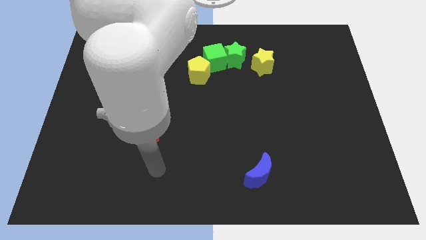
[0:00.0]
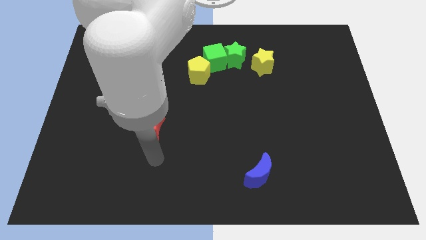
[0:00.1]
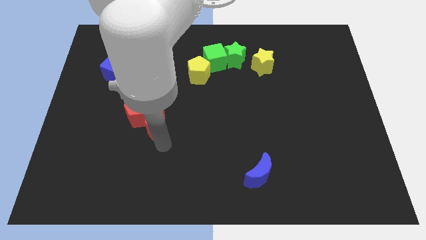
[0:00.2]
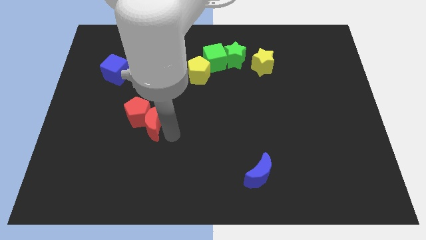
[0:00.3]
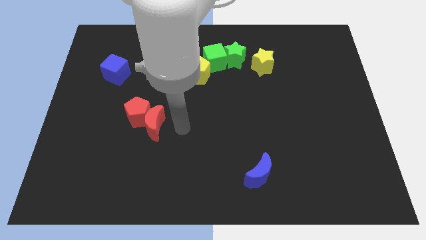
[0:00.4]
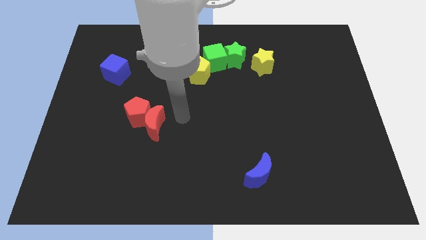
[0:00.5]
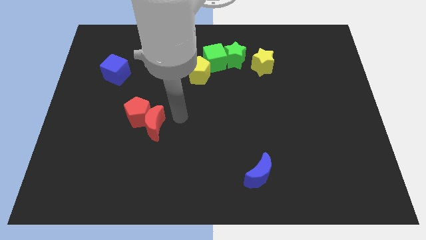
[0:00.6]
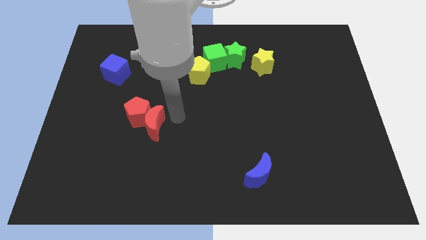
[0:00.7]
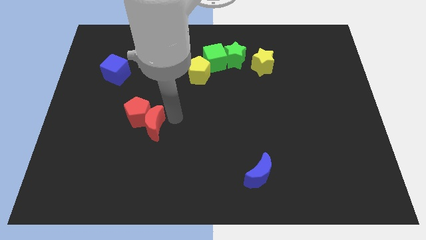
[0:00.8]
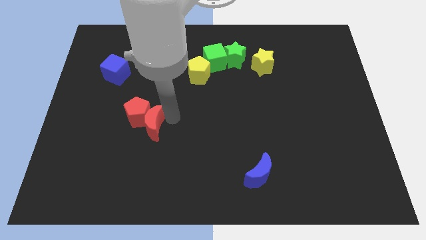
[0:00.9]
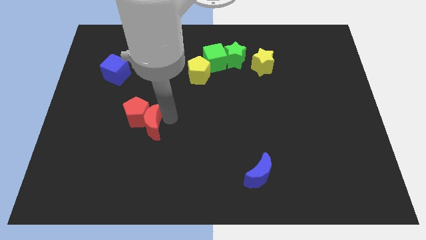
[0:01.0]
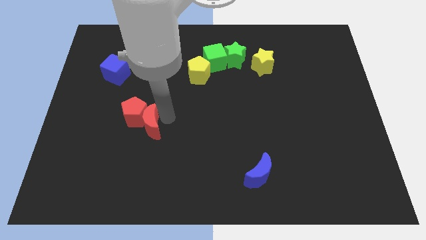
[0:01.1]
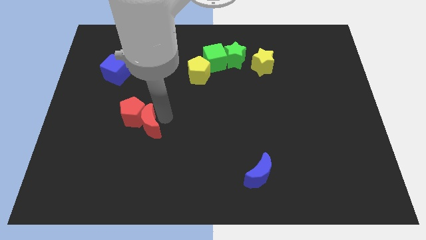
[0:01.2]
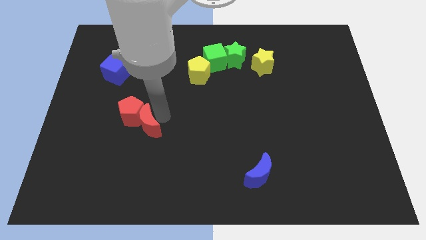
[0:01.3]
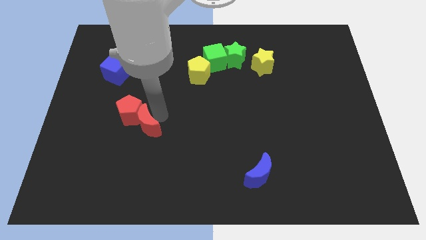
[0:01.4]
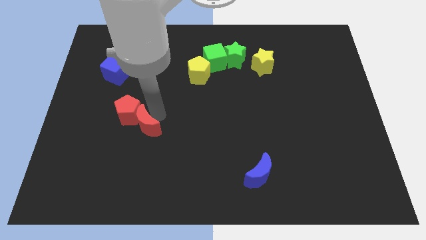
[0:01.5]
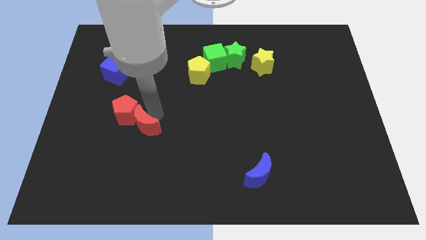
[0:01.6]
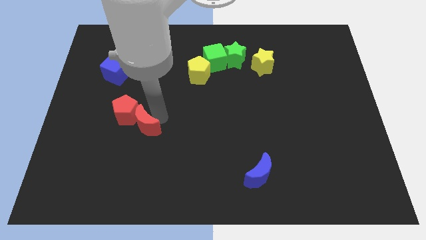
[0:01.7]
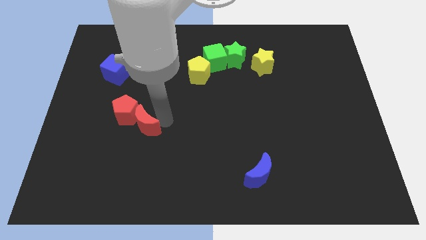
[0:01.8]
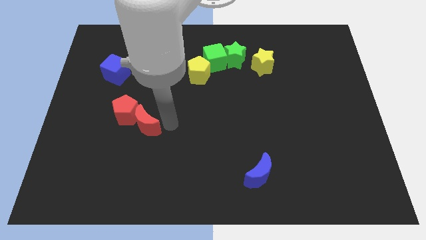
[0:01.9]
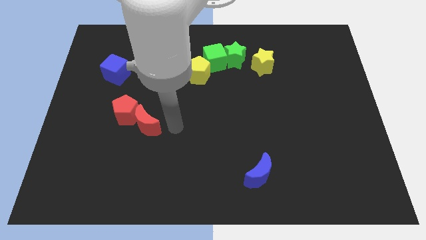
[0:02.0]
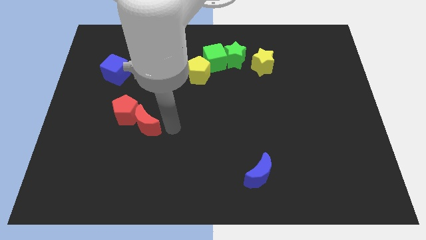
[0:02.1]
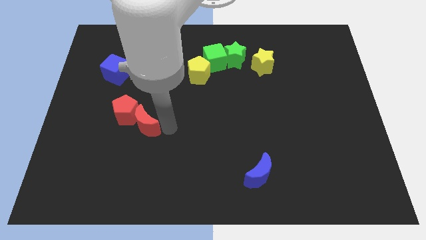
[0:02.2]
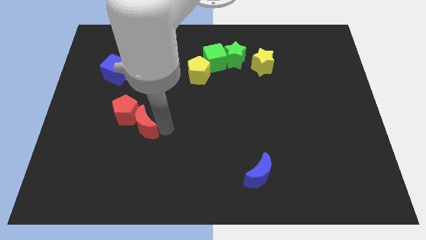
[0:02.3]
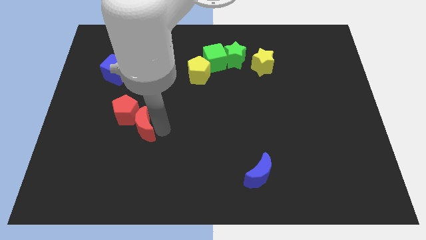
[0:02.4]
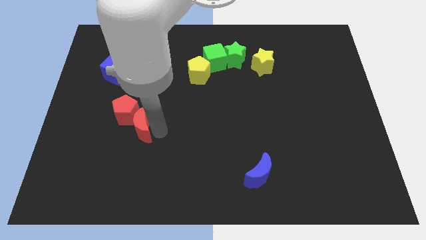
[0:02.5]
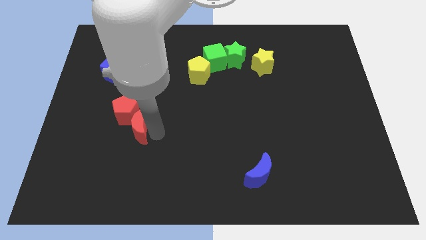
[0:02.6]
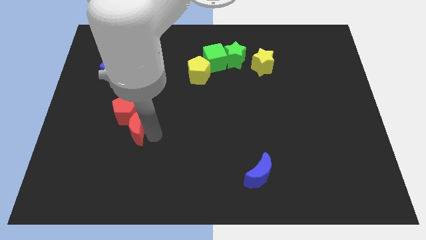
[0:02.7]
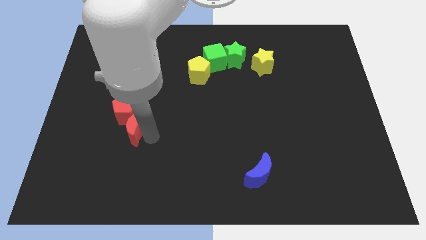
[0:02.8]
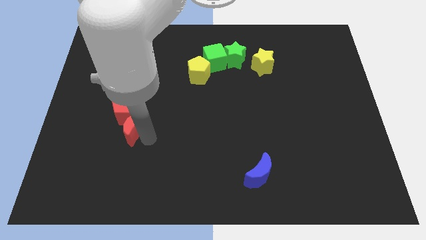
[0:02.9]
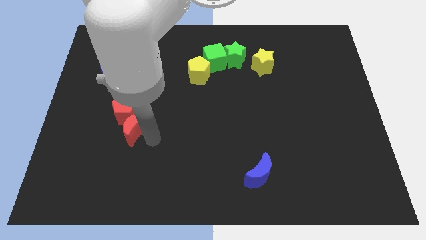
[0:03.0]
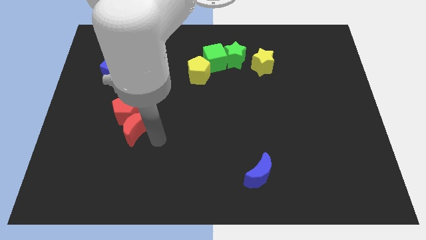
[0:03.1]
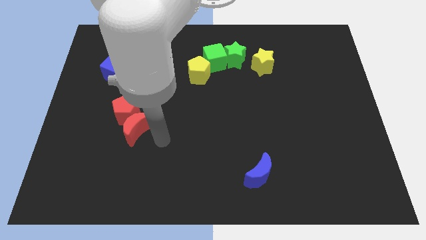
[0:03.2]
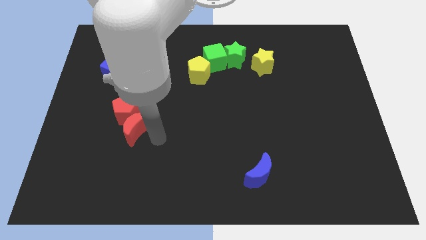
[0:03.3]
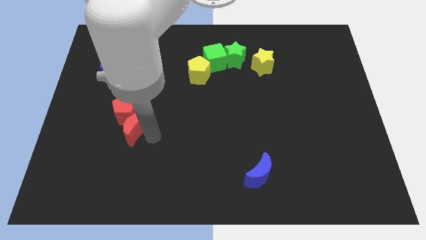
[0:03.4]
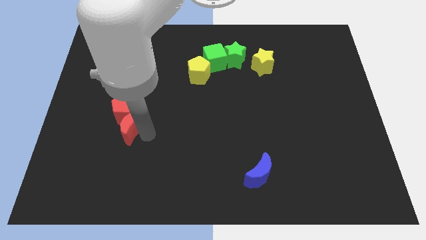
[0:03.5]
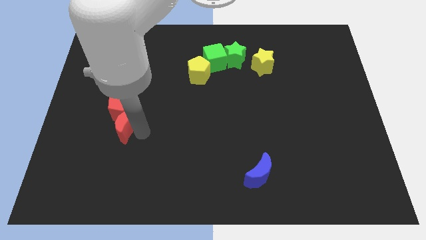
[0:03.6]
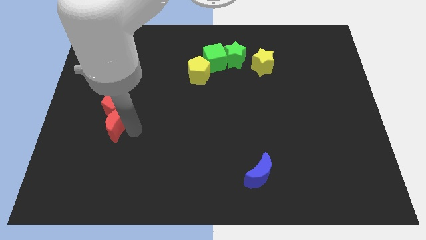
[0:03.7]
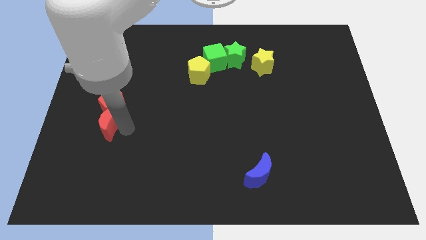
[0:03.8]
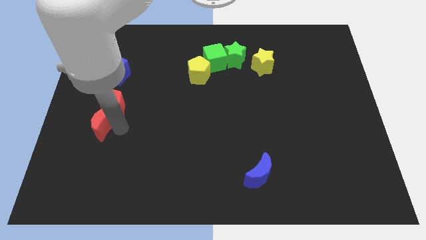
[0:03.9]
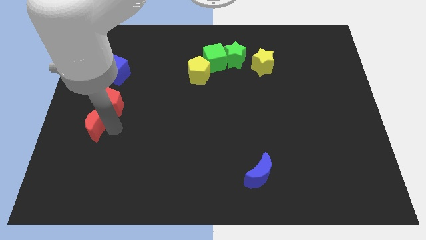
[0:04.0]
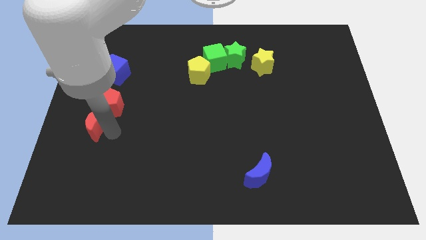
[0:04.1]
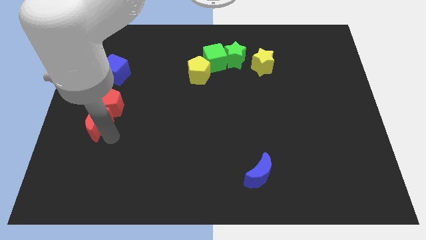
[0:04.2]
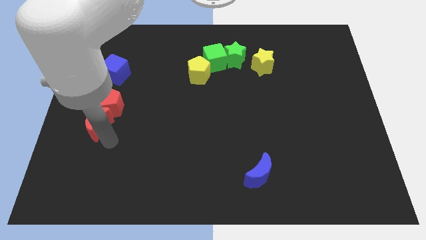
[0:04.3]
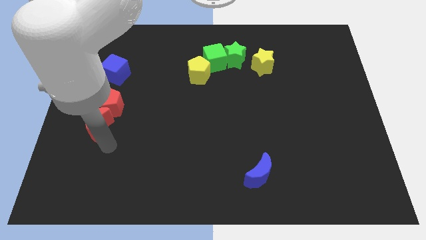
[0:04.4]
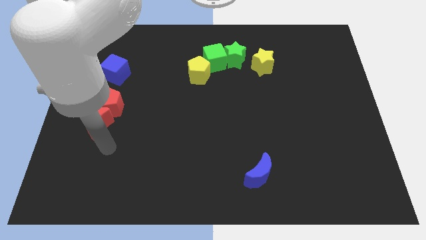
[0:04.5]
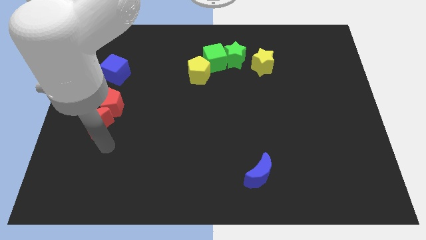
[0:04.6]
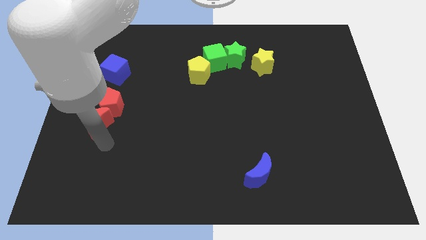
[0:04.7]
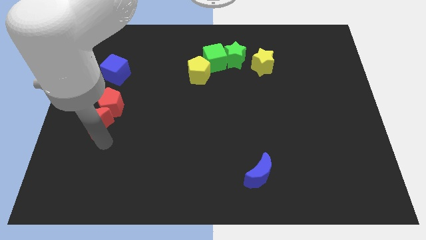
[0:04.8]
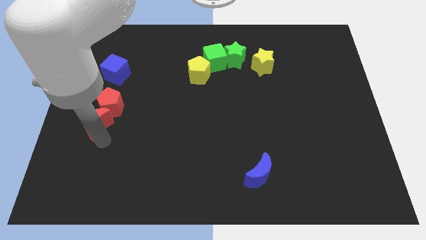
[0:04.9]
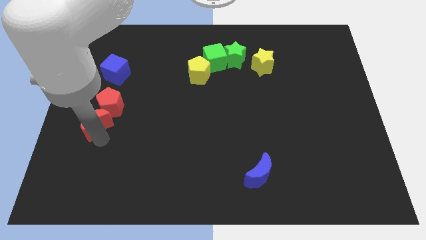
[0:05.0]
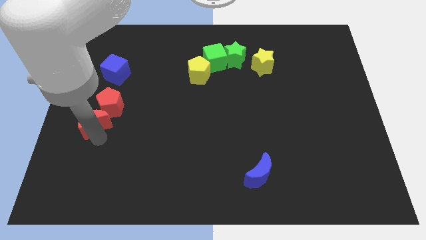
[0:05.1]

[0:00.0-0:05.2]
put the red moon to the center left

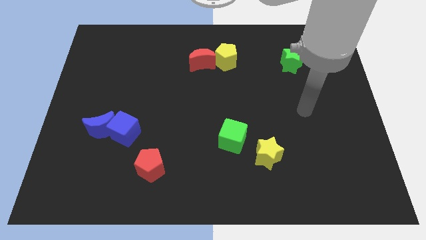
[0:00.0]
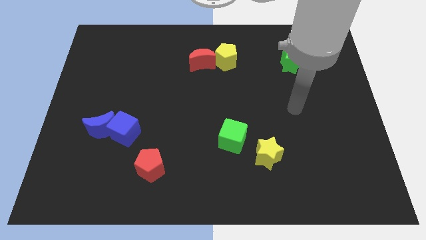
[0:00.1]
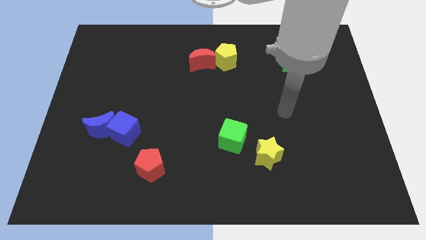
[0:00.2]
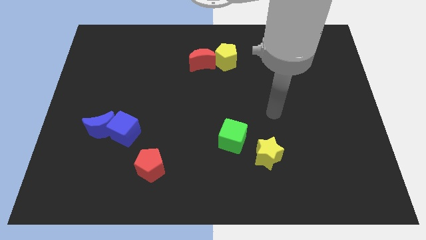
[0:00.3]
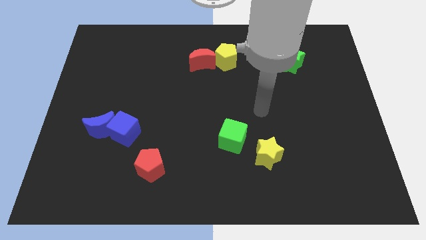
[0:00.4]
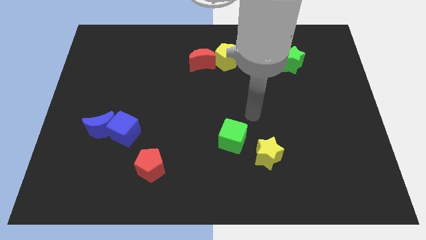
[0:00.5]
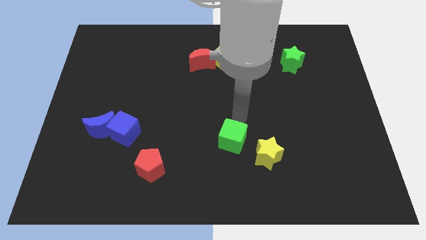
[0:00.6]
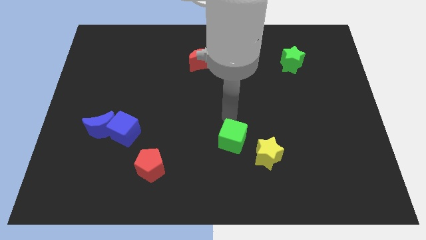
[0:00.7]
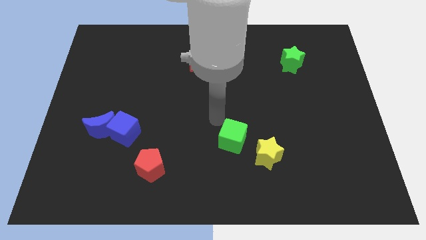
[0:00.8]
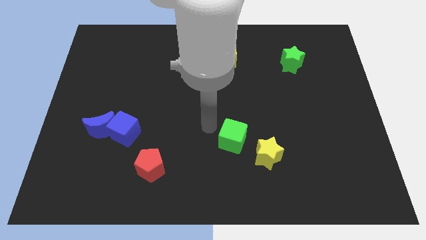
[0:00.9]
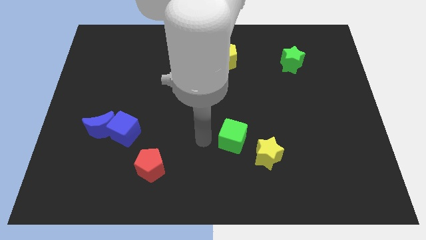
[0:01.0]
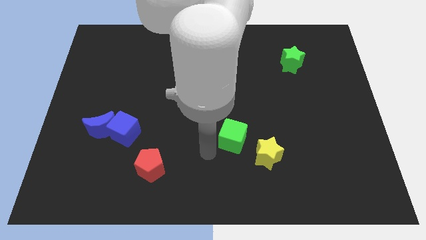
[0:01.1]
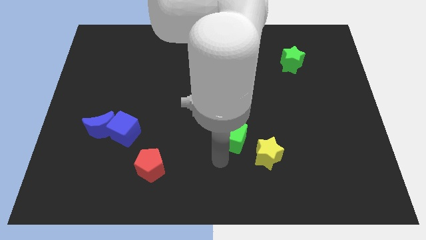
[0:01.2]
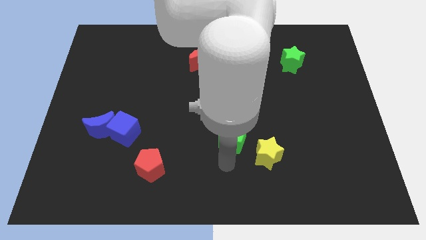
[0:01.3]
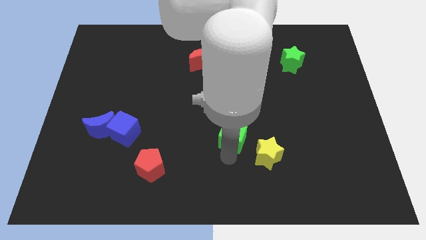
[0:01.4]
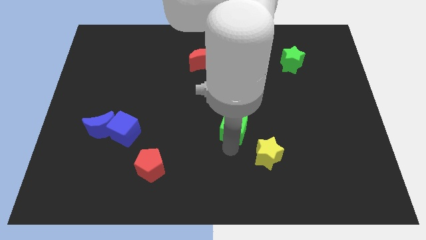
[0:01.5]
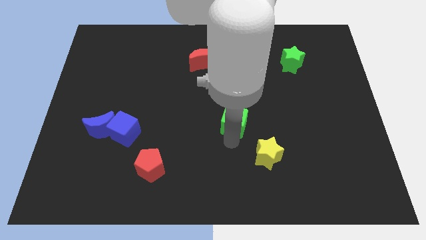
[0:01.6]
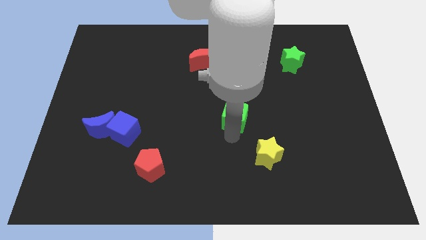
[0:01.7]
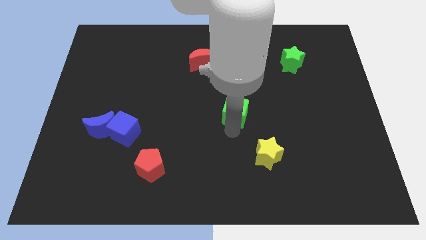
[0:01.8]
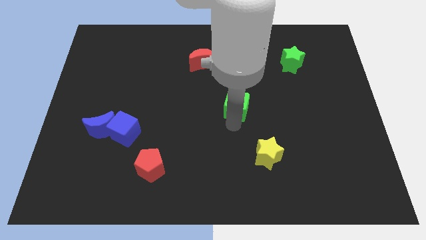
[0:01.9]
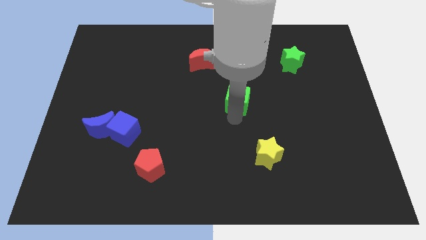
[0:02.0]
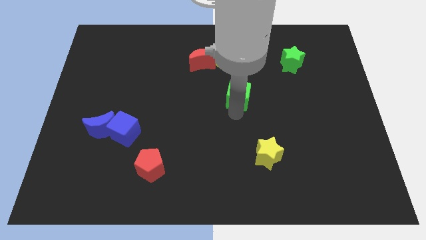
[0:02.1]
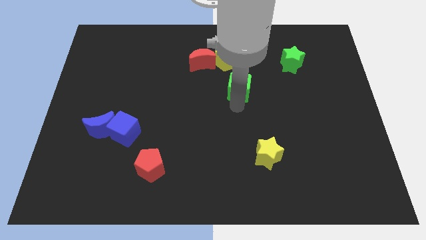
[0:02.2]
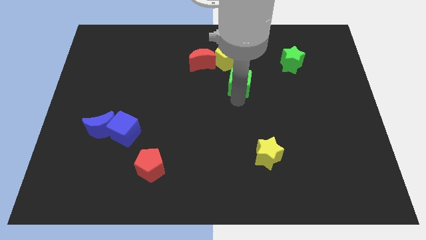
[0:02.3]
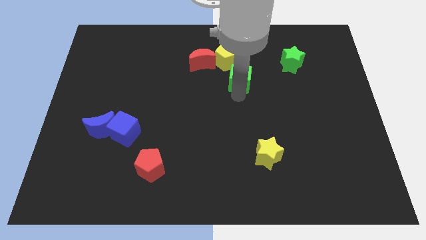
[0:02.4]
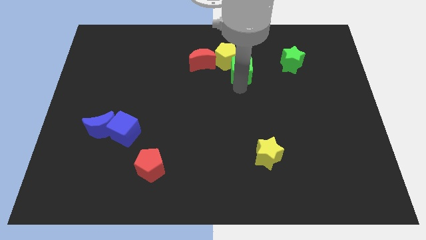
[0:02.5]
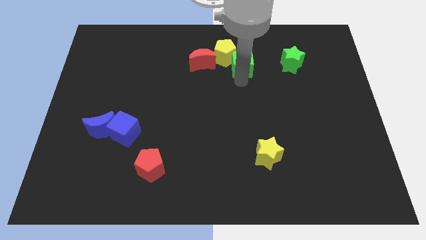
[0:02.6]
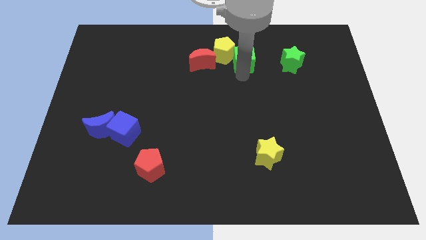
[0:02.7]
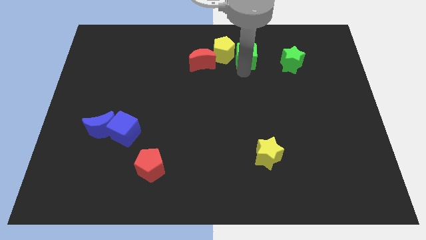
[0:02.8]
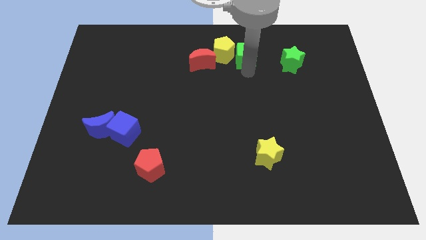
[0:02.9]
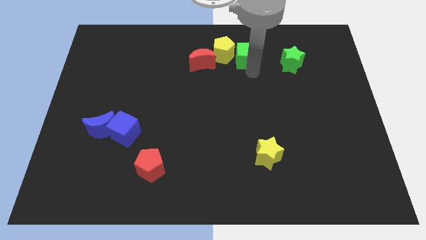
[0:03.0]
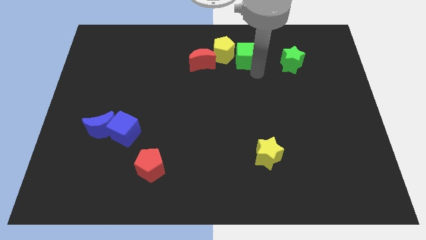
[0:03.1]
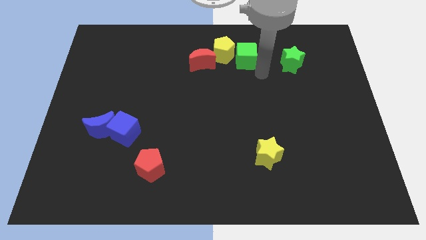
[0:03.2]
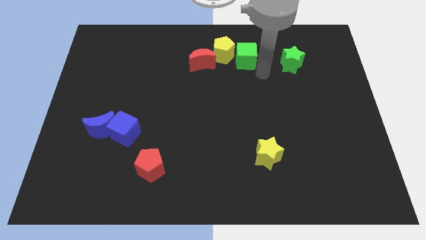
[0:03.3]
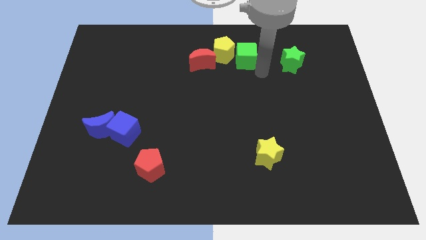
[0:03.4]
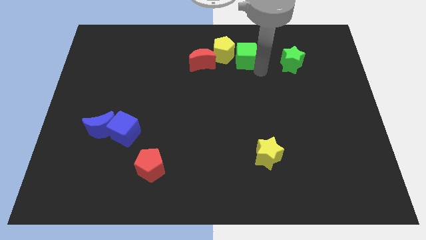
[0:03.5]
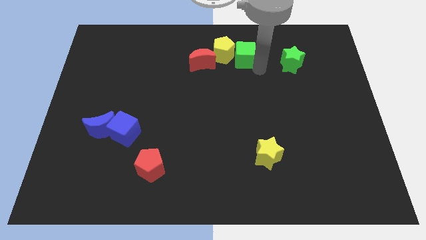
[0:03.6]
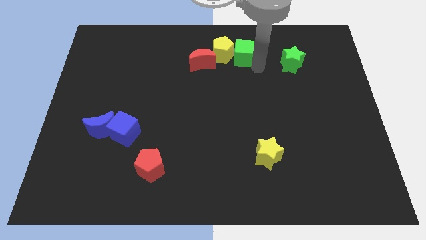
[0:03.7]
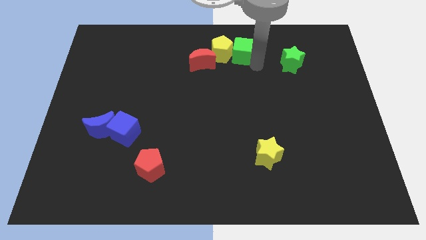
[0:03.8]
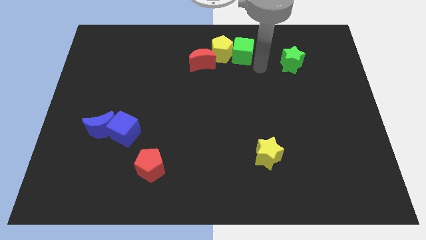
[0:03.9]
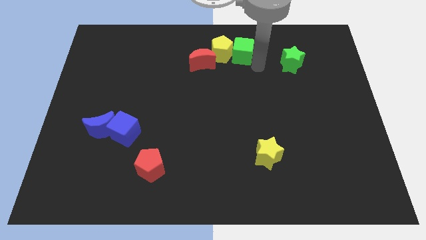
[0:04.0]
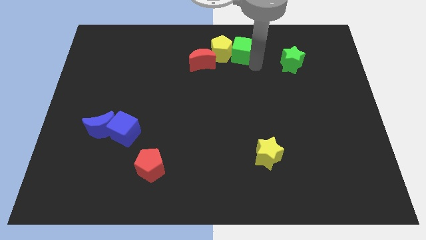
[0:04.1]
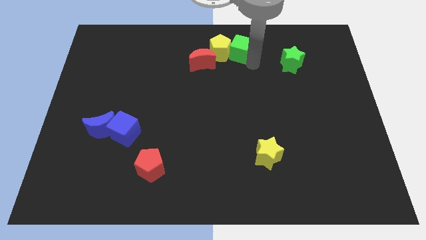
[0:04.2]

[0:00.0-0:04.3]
put the green cube to the top
